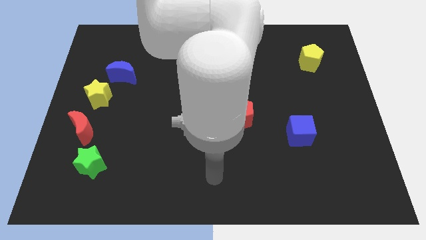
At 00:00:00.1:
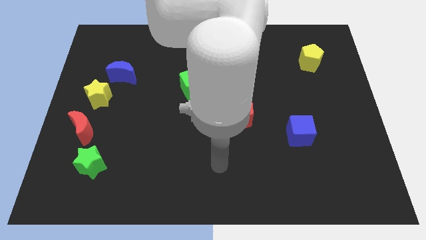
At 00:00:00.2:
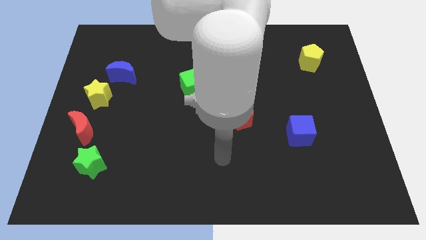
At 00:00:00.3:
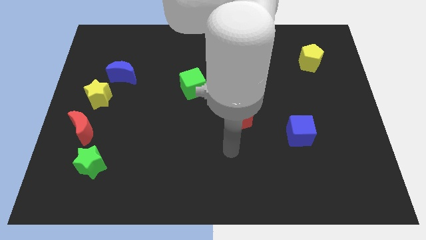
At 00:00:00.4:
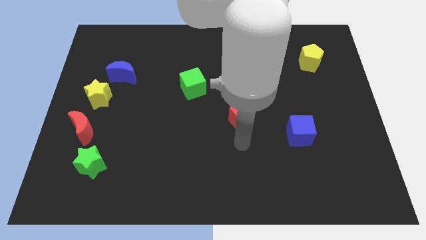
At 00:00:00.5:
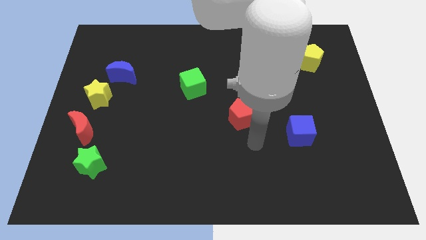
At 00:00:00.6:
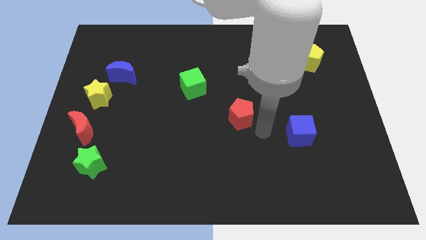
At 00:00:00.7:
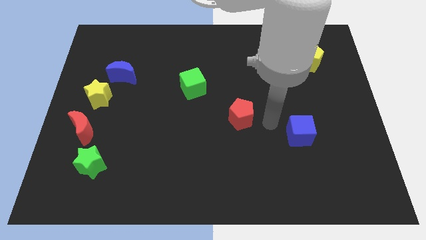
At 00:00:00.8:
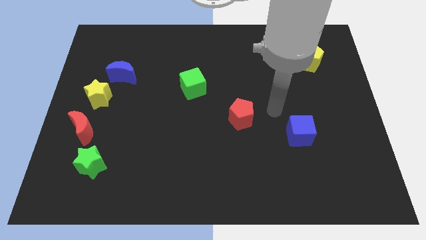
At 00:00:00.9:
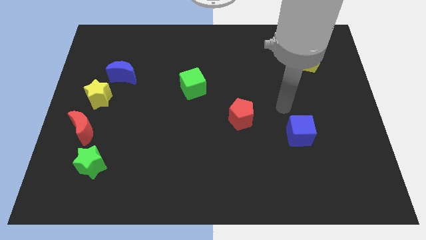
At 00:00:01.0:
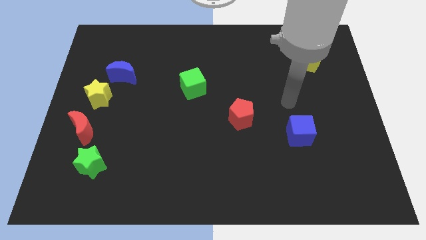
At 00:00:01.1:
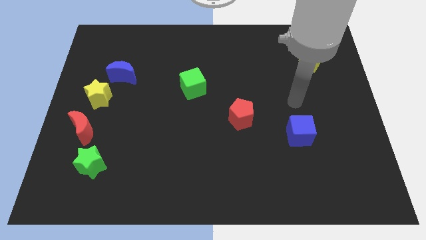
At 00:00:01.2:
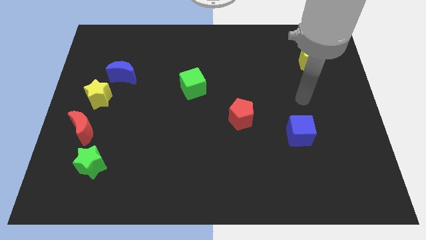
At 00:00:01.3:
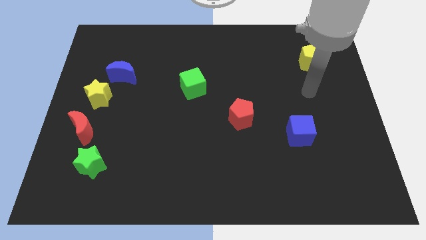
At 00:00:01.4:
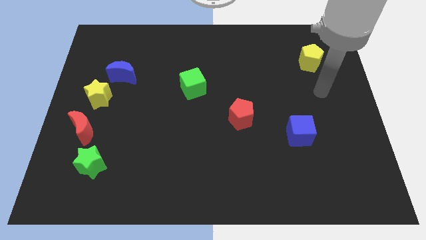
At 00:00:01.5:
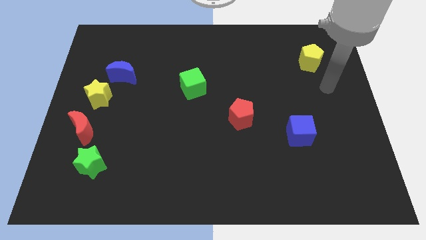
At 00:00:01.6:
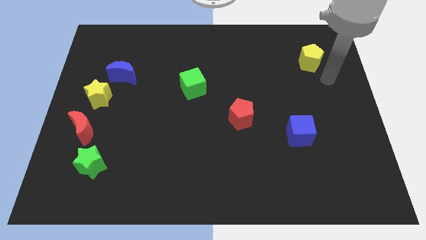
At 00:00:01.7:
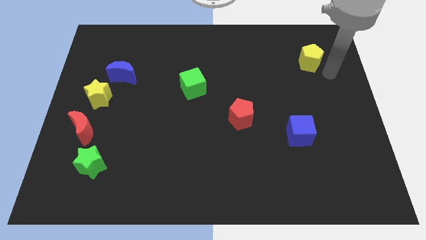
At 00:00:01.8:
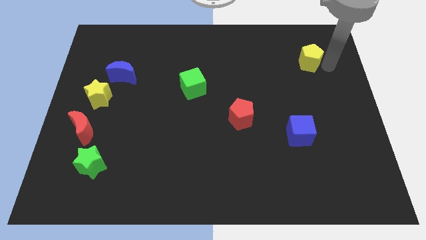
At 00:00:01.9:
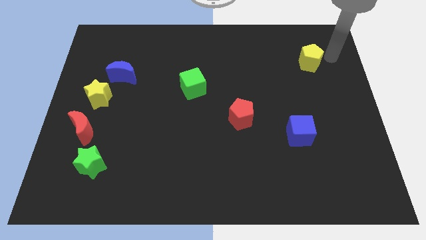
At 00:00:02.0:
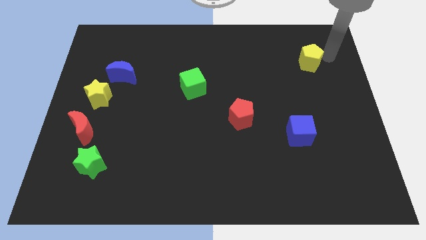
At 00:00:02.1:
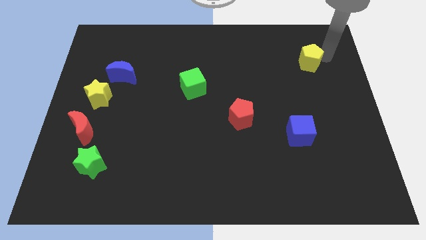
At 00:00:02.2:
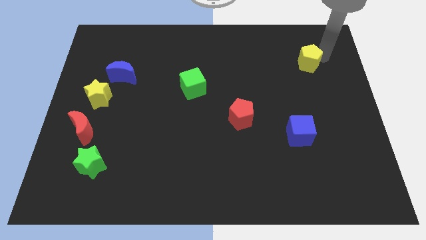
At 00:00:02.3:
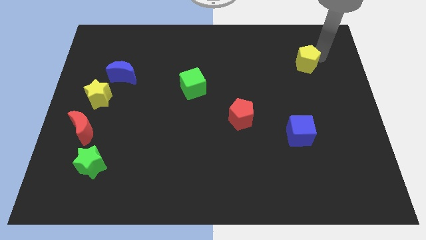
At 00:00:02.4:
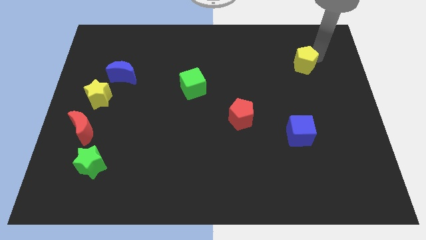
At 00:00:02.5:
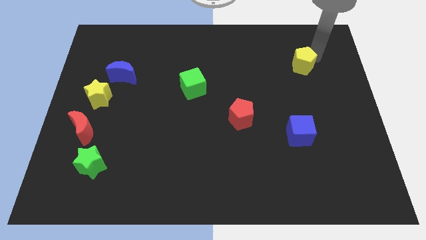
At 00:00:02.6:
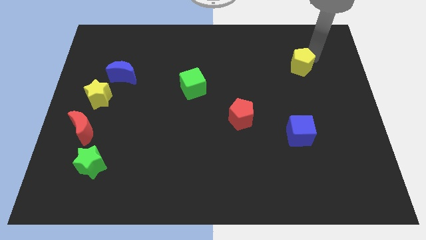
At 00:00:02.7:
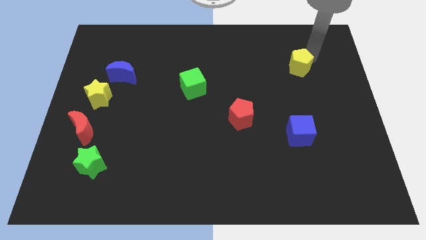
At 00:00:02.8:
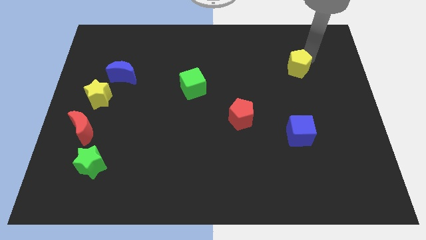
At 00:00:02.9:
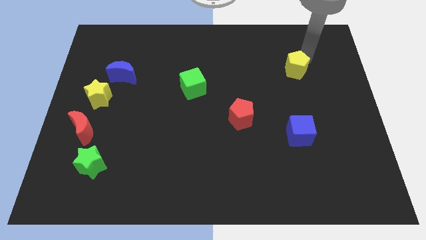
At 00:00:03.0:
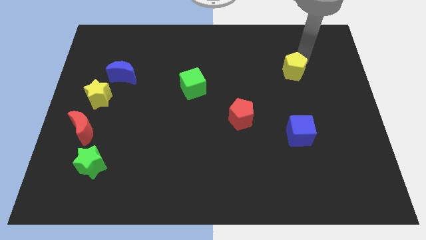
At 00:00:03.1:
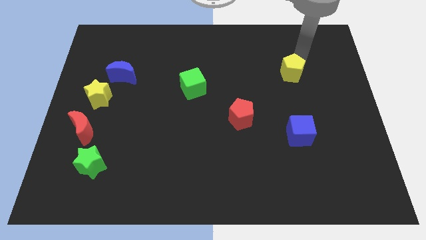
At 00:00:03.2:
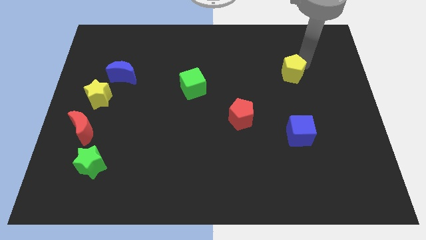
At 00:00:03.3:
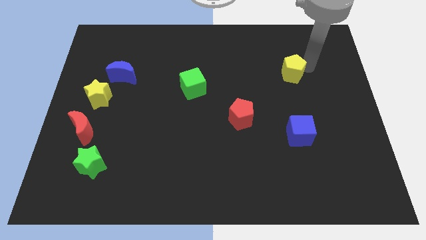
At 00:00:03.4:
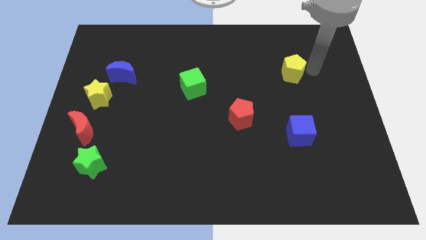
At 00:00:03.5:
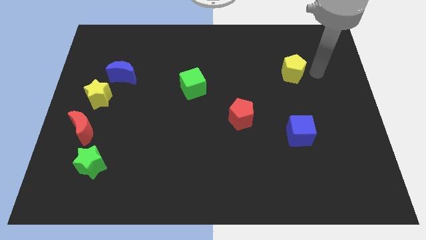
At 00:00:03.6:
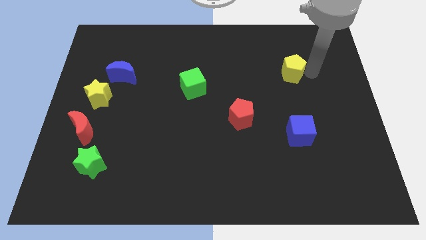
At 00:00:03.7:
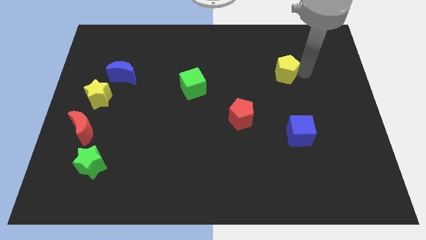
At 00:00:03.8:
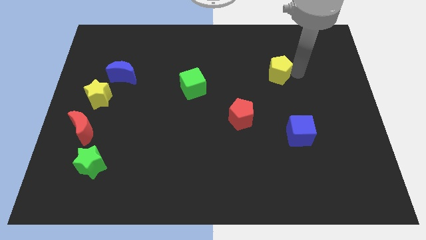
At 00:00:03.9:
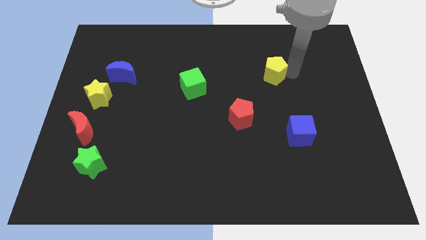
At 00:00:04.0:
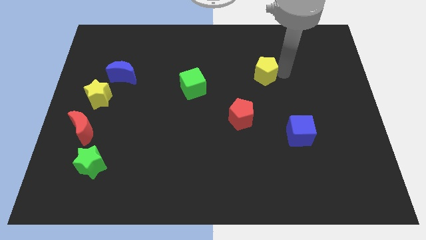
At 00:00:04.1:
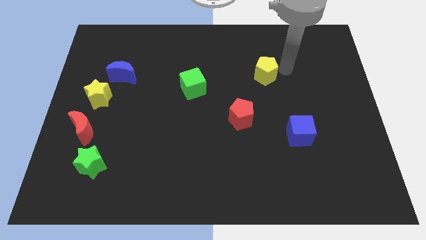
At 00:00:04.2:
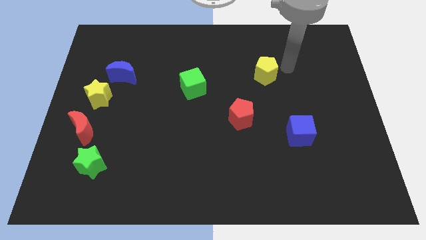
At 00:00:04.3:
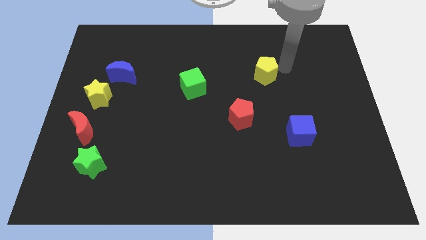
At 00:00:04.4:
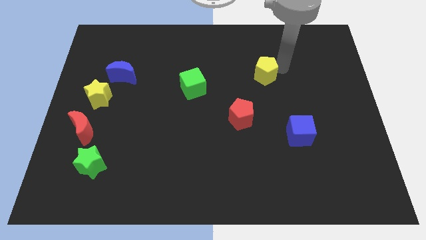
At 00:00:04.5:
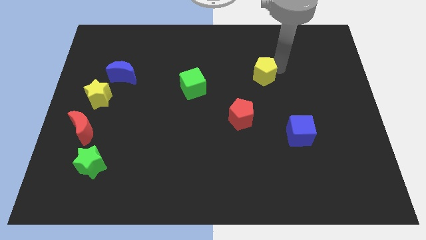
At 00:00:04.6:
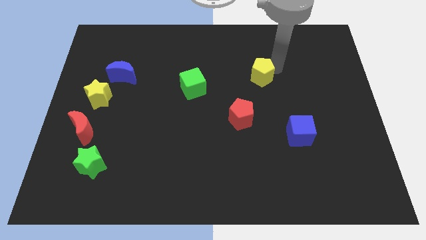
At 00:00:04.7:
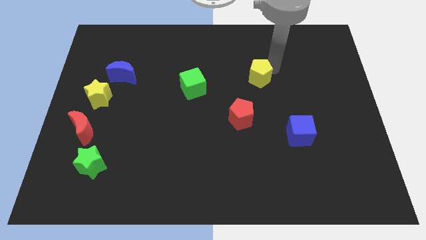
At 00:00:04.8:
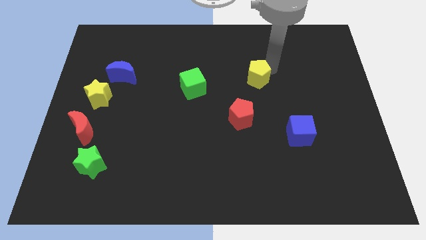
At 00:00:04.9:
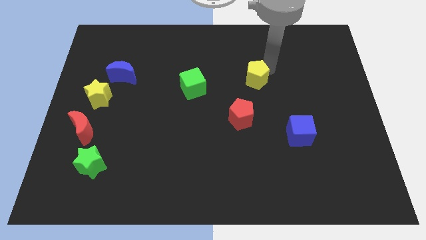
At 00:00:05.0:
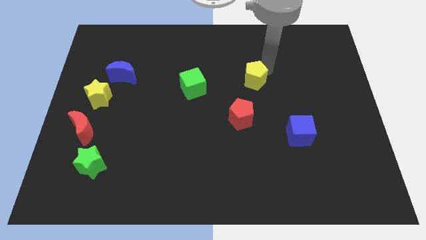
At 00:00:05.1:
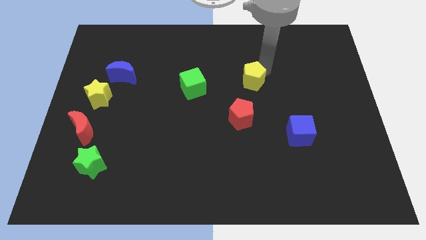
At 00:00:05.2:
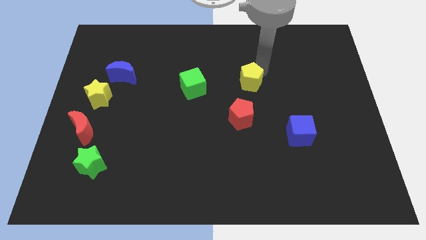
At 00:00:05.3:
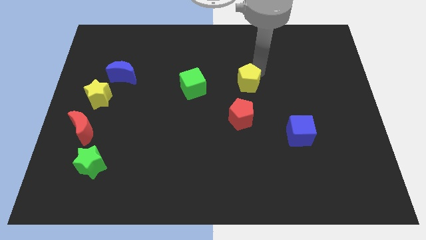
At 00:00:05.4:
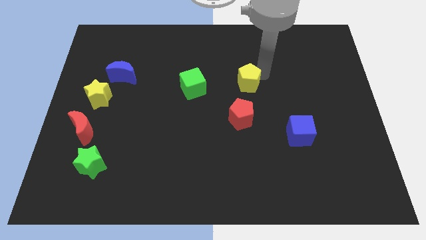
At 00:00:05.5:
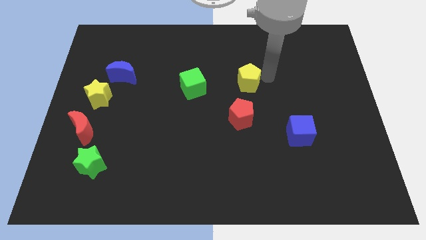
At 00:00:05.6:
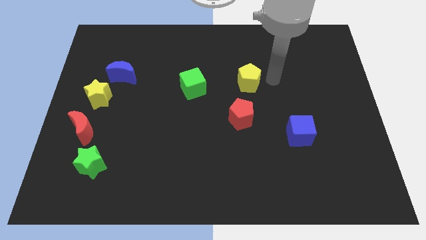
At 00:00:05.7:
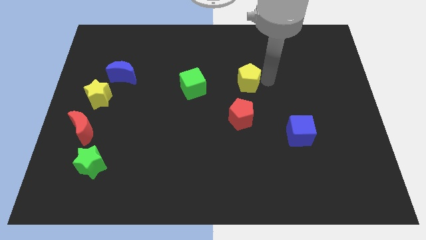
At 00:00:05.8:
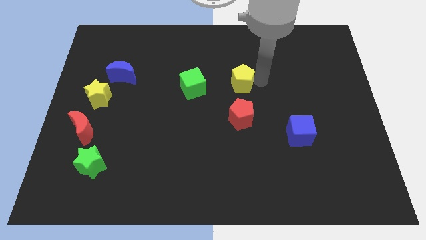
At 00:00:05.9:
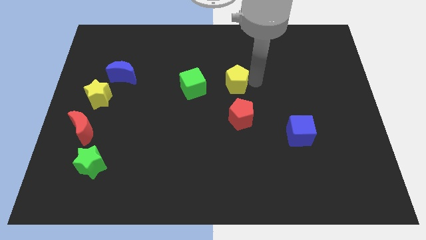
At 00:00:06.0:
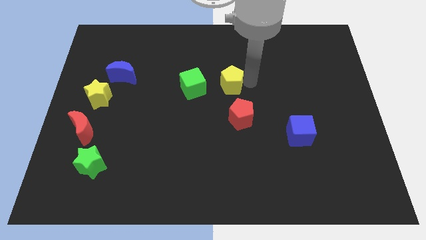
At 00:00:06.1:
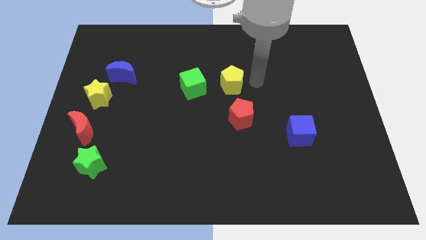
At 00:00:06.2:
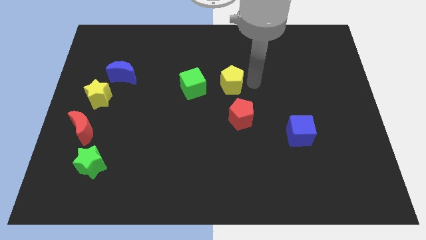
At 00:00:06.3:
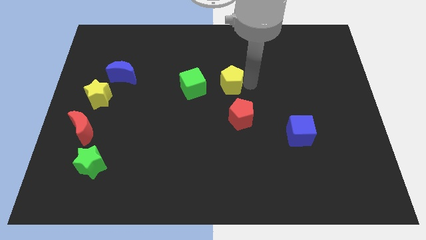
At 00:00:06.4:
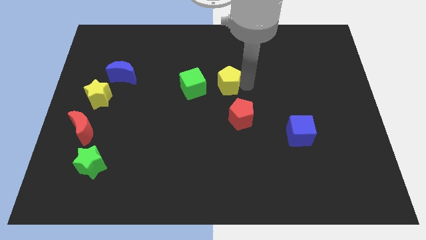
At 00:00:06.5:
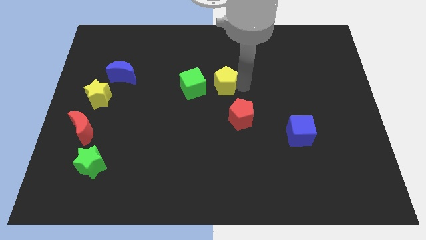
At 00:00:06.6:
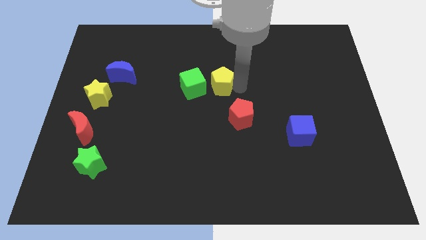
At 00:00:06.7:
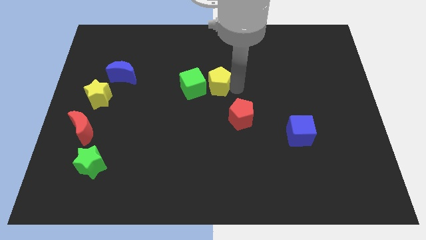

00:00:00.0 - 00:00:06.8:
slide the yellow pentagon to the green cube
